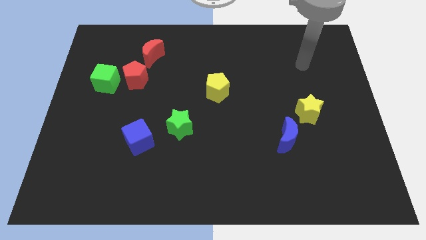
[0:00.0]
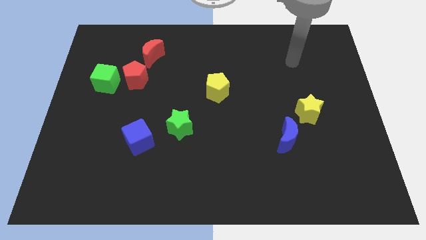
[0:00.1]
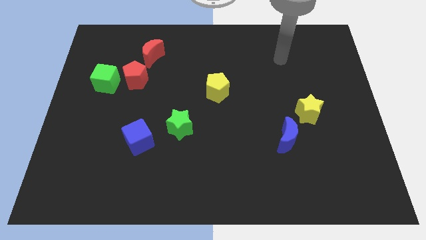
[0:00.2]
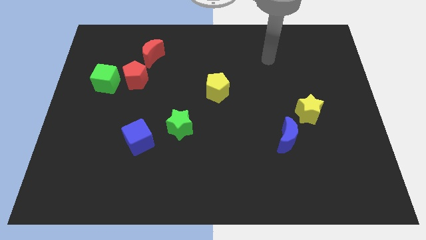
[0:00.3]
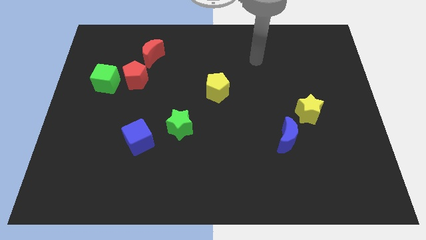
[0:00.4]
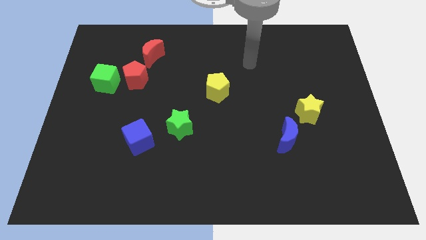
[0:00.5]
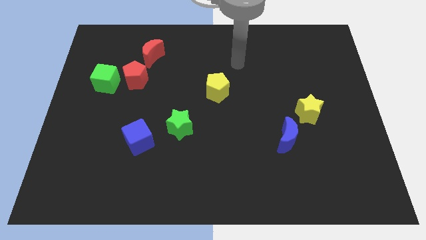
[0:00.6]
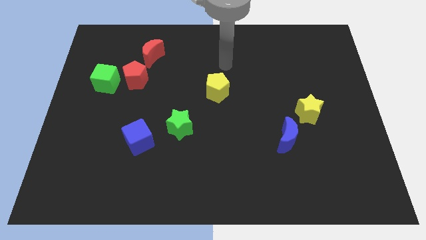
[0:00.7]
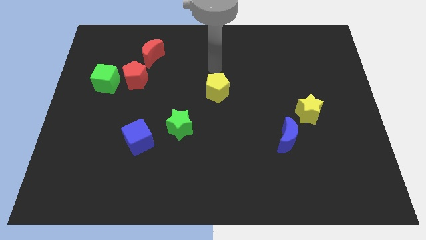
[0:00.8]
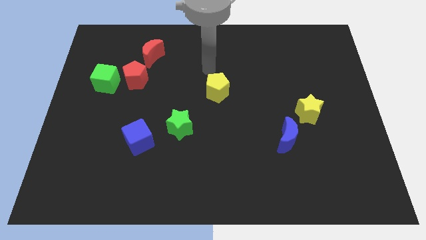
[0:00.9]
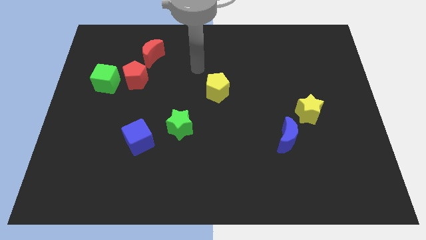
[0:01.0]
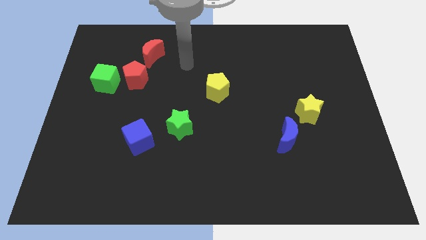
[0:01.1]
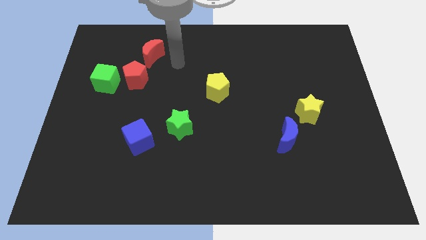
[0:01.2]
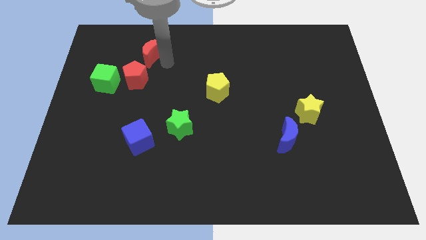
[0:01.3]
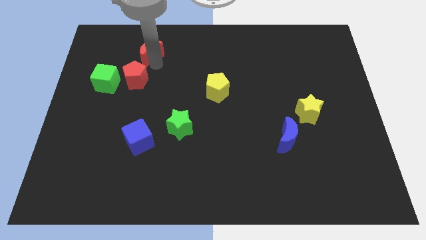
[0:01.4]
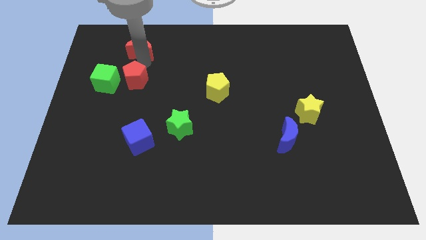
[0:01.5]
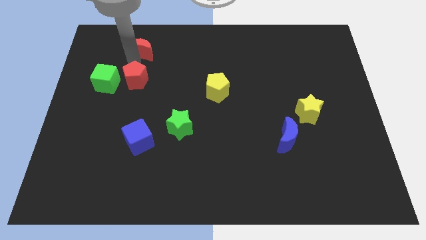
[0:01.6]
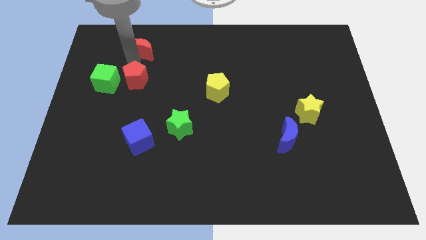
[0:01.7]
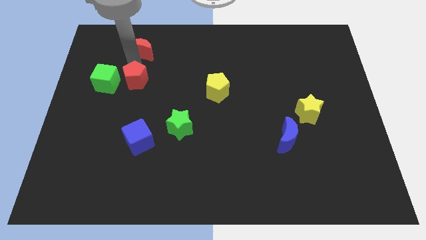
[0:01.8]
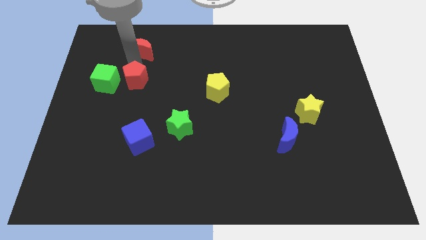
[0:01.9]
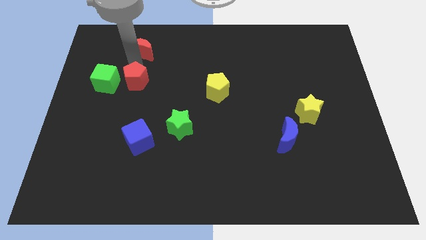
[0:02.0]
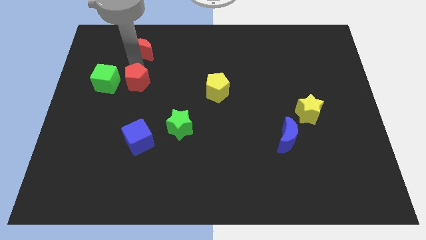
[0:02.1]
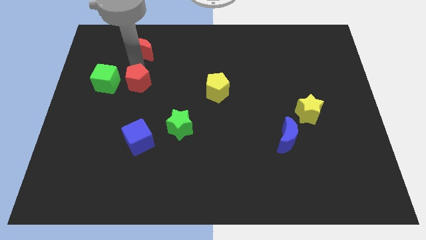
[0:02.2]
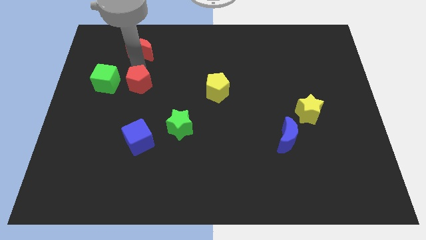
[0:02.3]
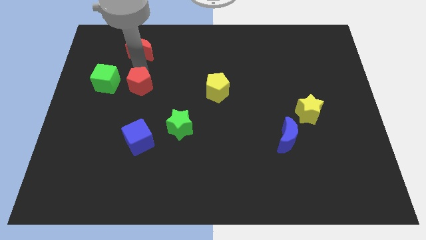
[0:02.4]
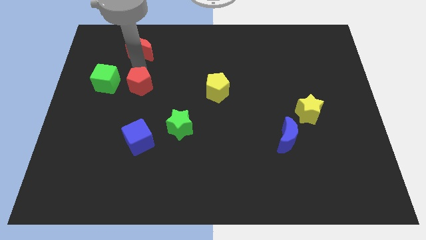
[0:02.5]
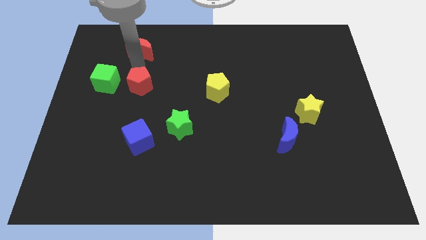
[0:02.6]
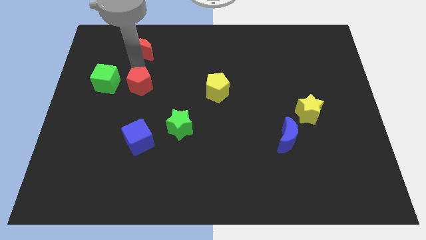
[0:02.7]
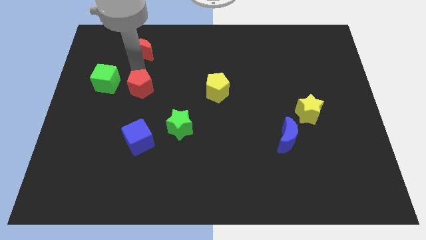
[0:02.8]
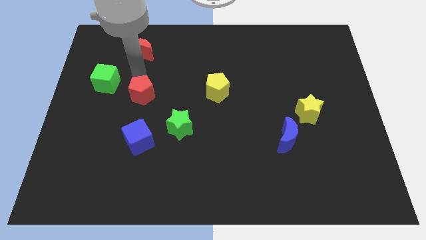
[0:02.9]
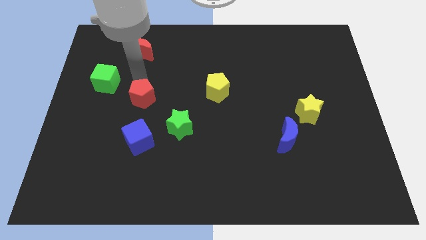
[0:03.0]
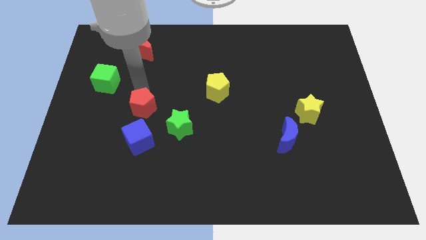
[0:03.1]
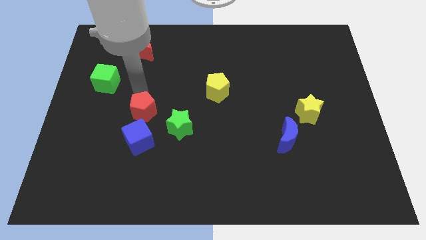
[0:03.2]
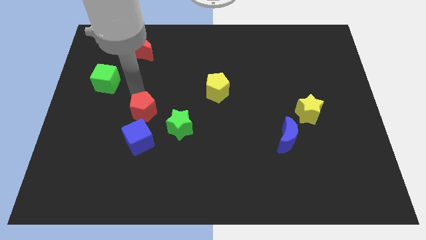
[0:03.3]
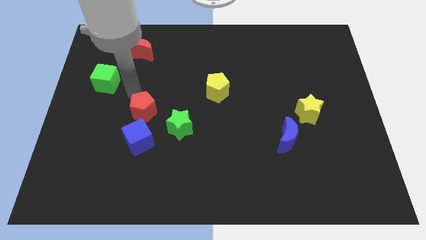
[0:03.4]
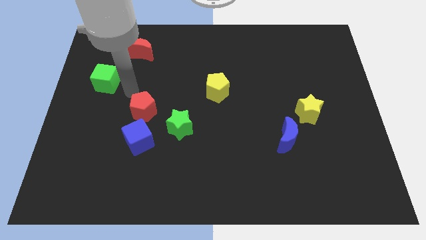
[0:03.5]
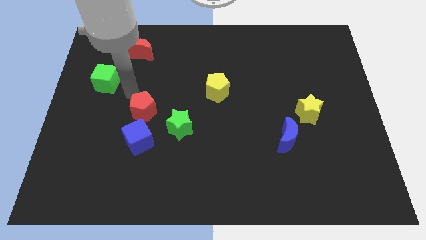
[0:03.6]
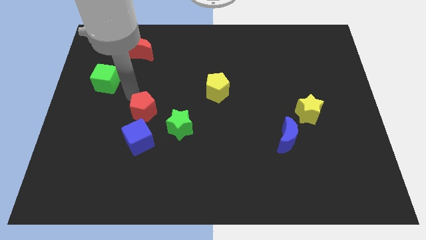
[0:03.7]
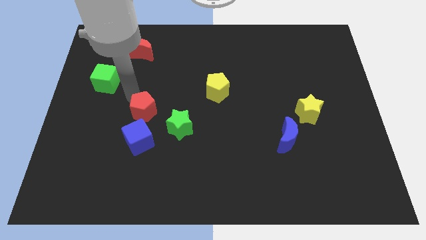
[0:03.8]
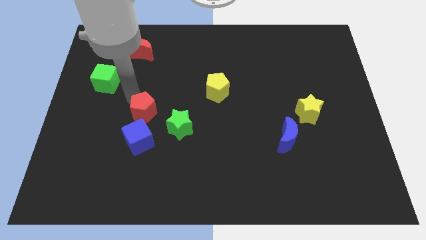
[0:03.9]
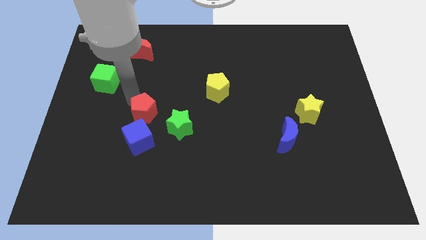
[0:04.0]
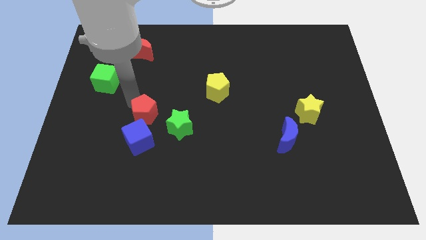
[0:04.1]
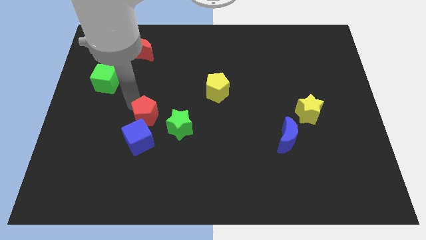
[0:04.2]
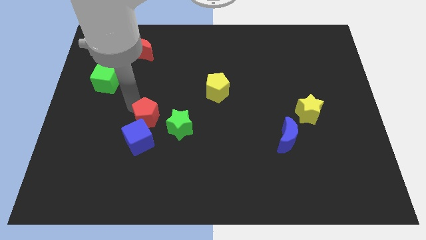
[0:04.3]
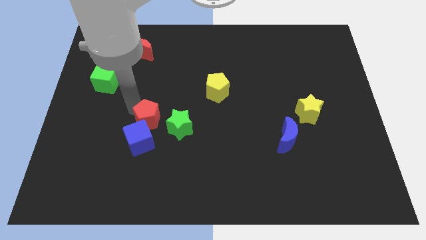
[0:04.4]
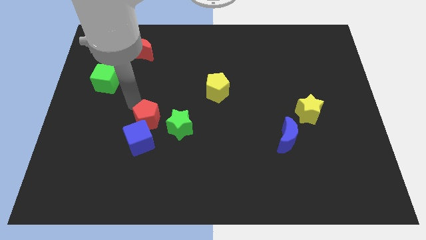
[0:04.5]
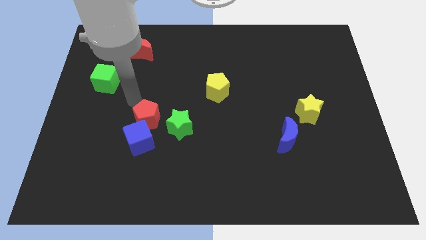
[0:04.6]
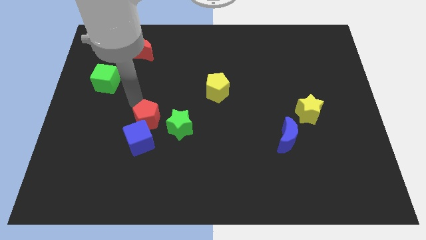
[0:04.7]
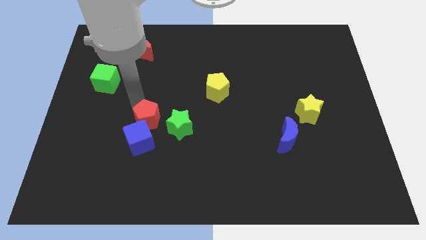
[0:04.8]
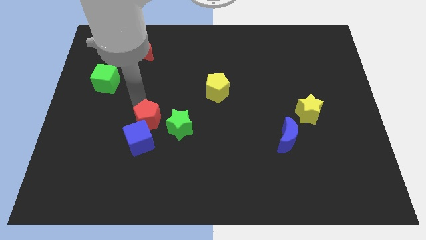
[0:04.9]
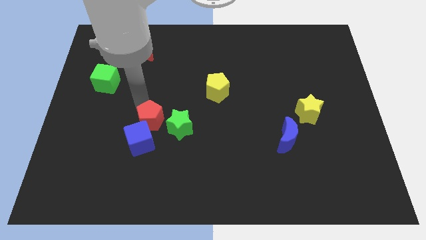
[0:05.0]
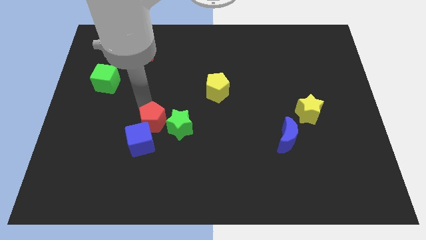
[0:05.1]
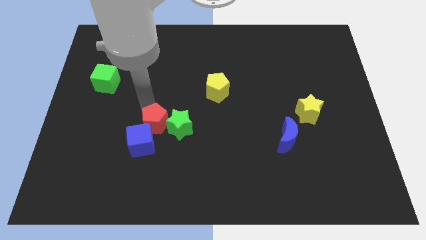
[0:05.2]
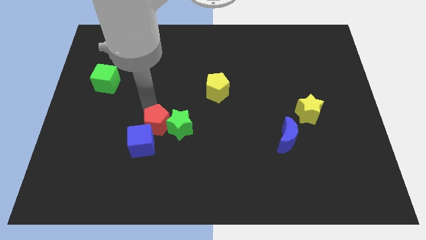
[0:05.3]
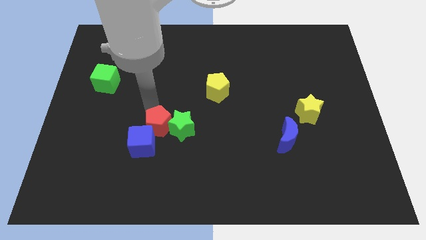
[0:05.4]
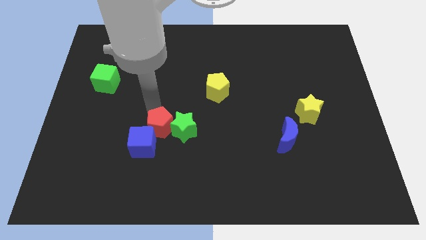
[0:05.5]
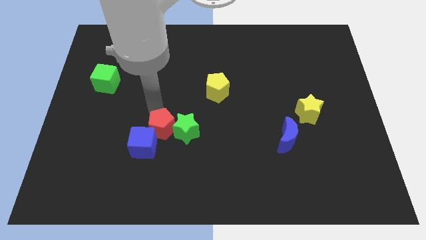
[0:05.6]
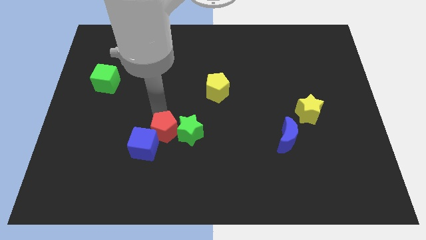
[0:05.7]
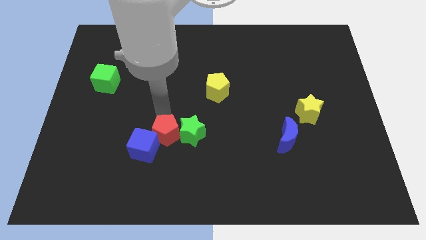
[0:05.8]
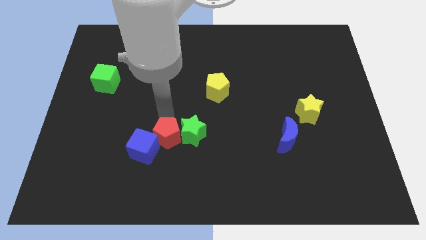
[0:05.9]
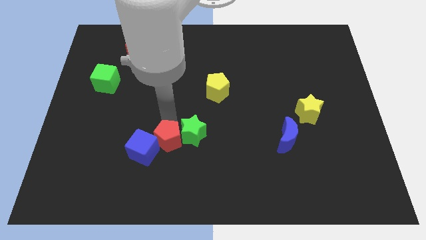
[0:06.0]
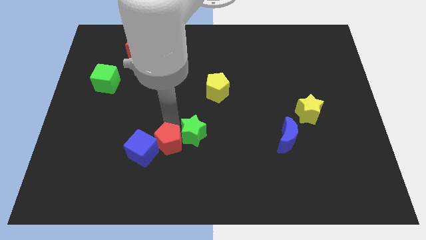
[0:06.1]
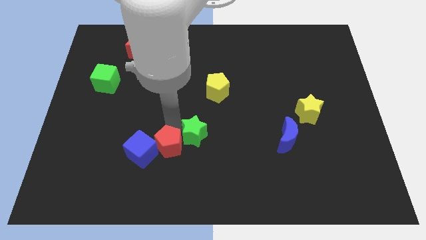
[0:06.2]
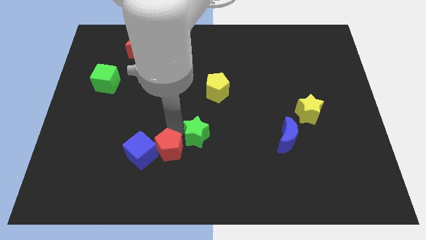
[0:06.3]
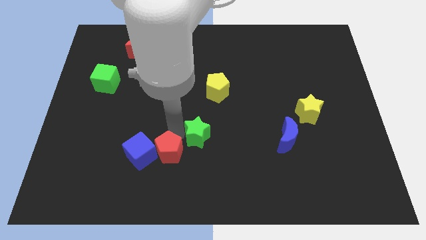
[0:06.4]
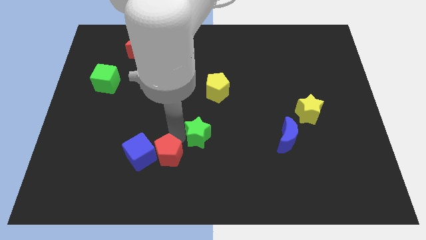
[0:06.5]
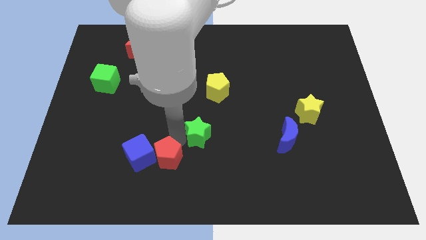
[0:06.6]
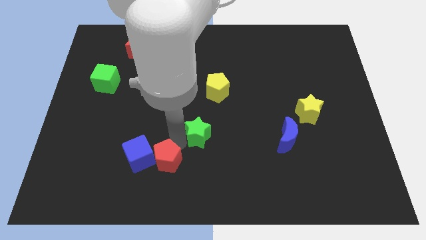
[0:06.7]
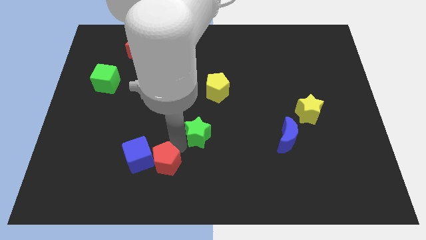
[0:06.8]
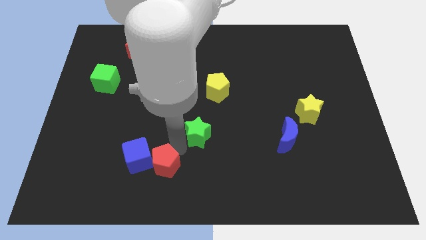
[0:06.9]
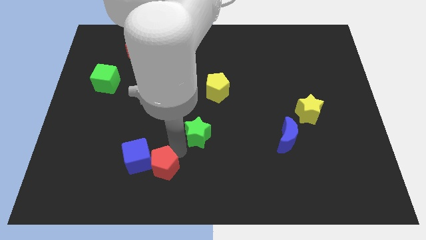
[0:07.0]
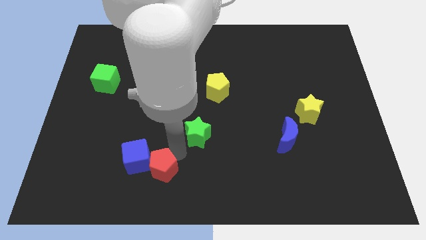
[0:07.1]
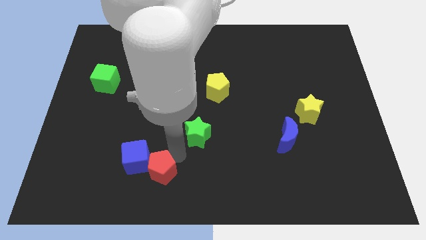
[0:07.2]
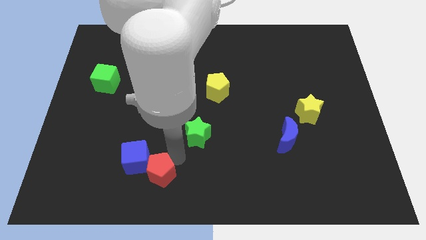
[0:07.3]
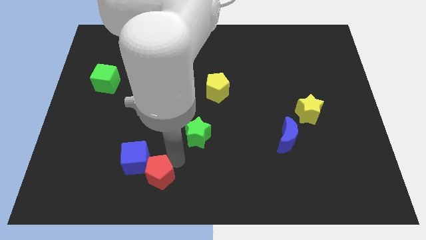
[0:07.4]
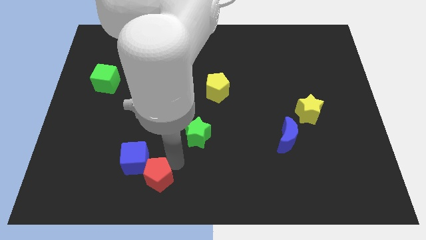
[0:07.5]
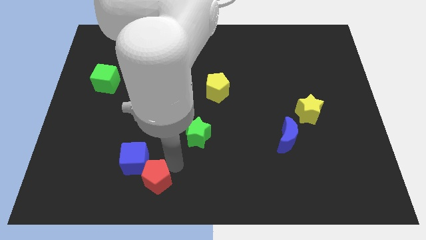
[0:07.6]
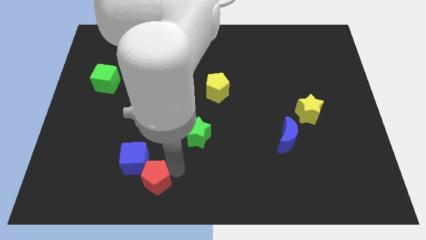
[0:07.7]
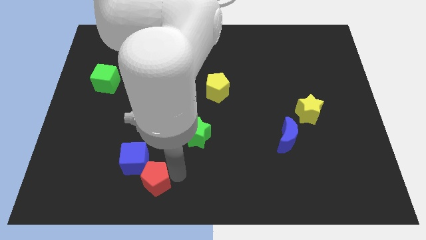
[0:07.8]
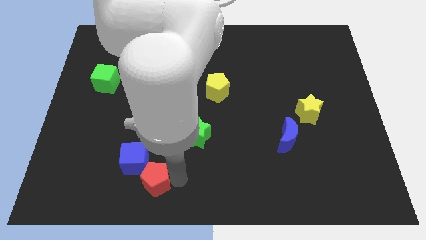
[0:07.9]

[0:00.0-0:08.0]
move the red pentagon to the bottom side of the blue cube
